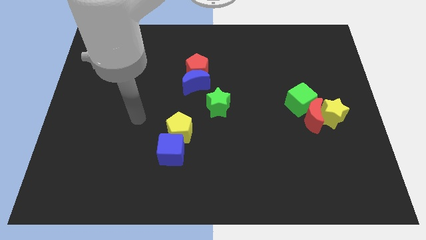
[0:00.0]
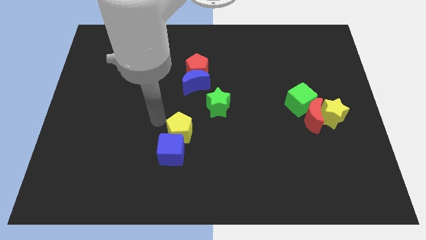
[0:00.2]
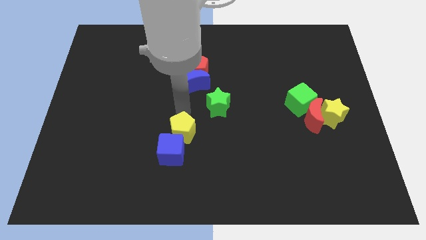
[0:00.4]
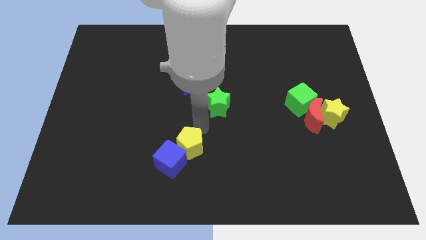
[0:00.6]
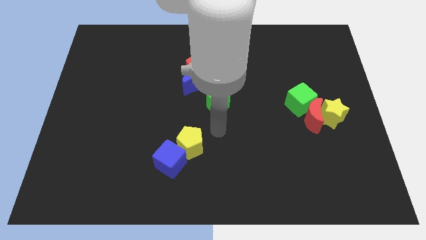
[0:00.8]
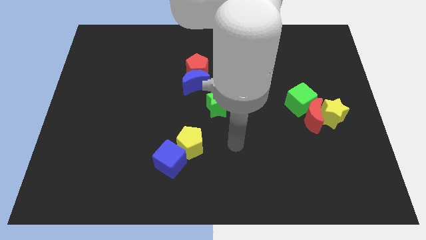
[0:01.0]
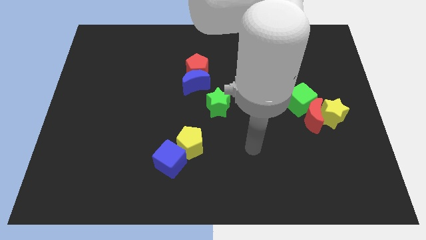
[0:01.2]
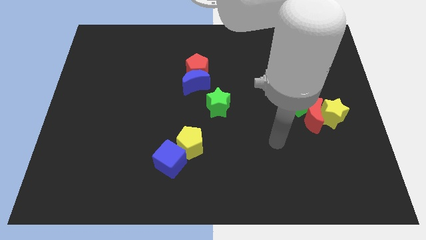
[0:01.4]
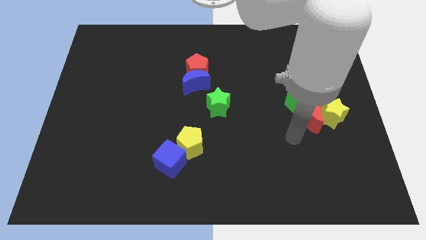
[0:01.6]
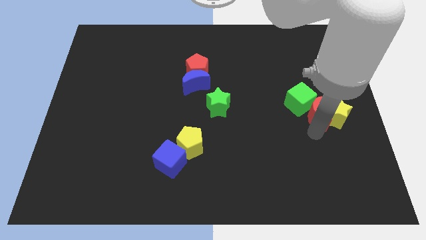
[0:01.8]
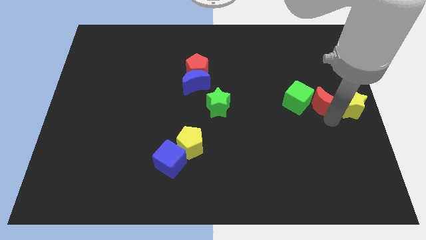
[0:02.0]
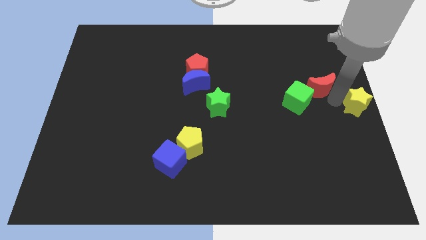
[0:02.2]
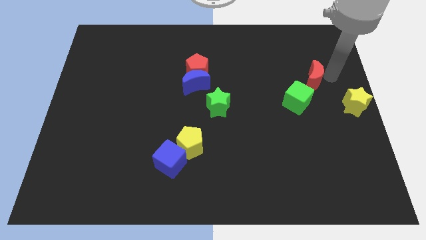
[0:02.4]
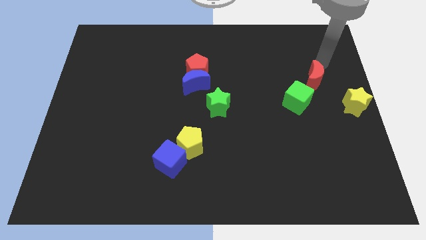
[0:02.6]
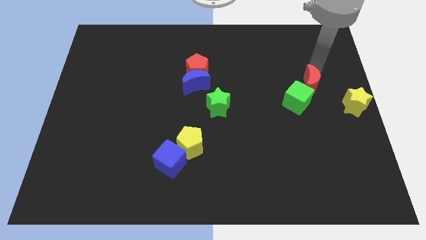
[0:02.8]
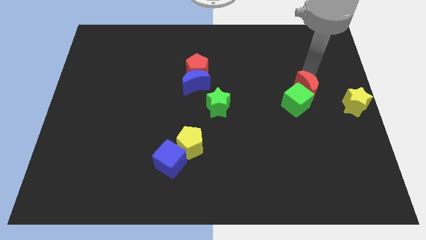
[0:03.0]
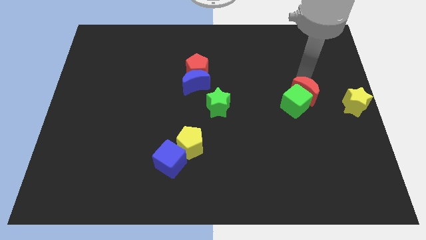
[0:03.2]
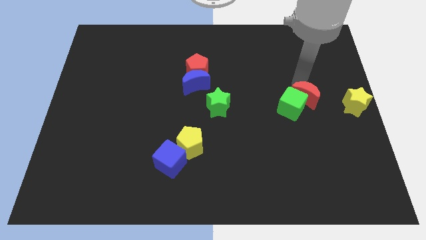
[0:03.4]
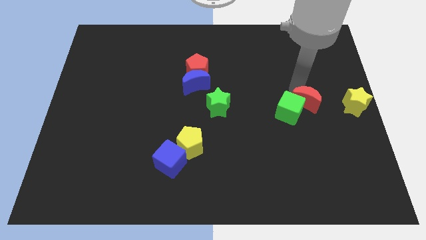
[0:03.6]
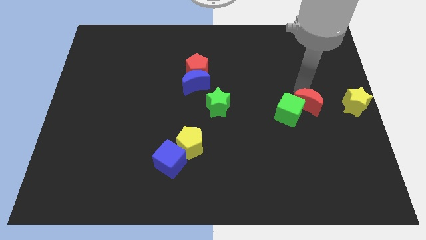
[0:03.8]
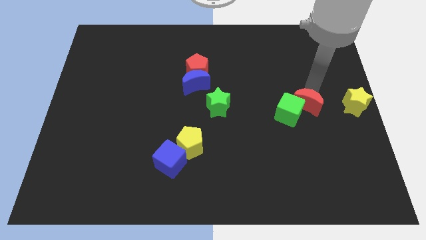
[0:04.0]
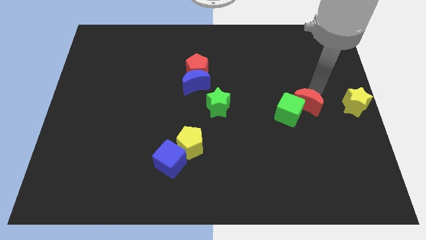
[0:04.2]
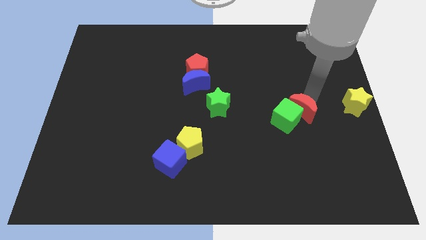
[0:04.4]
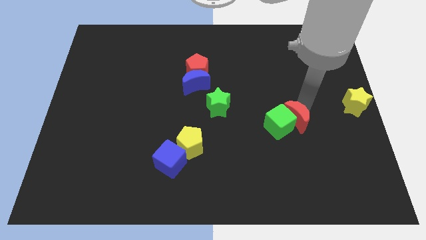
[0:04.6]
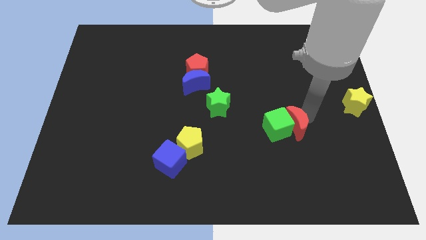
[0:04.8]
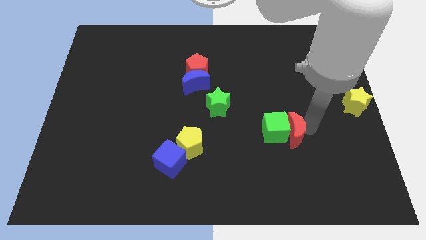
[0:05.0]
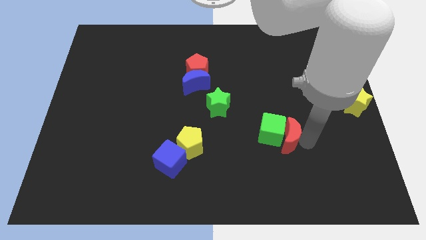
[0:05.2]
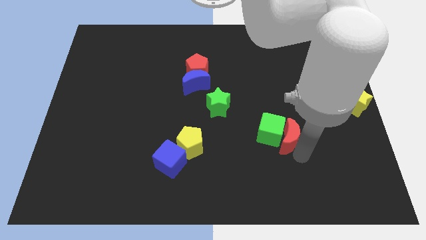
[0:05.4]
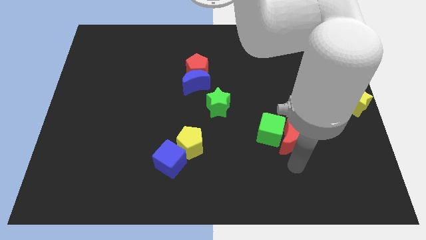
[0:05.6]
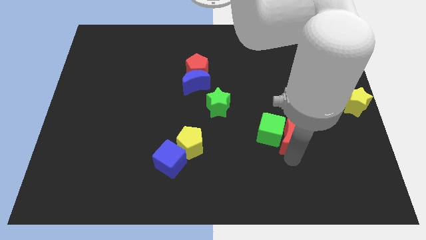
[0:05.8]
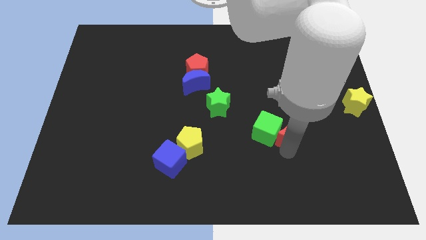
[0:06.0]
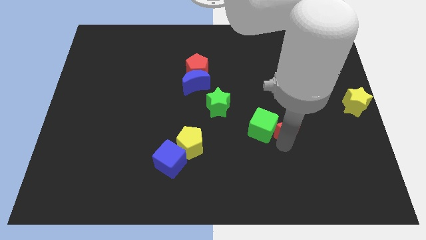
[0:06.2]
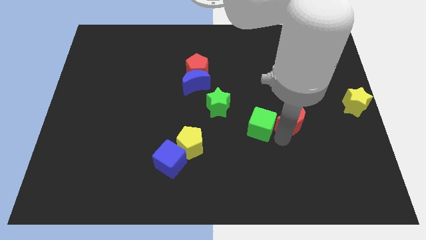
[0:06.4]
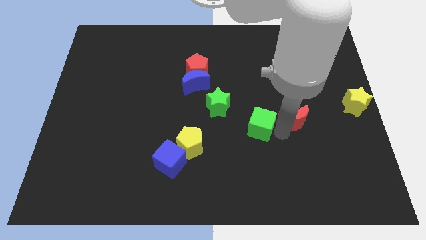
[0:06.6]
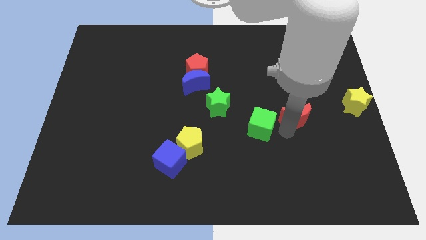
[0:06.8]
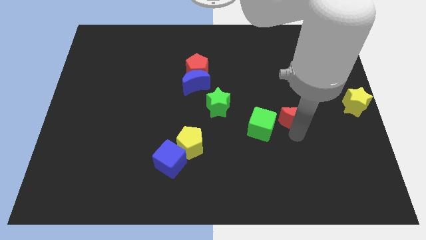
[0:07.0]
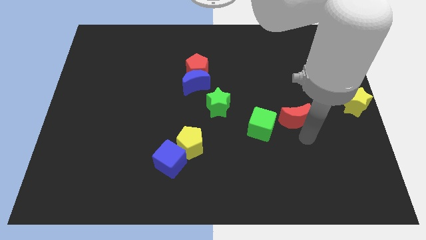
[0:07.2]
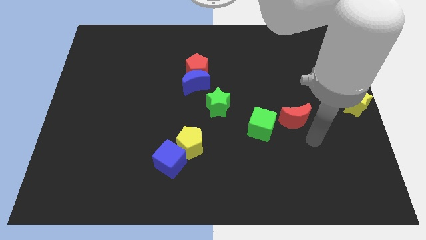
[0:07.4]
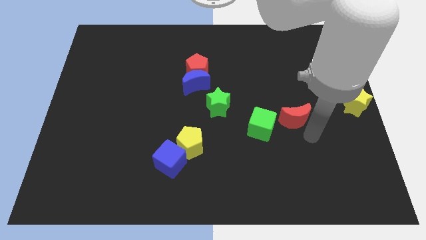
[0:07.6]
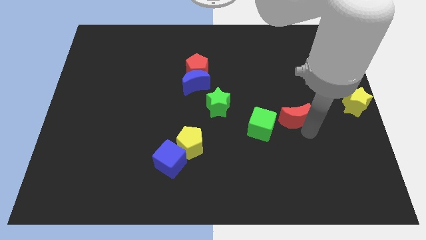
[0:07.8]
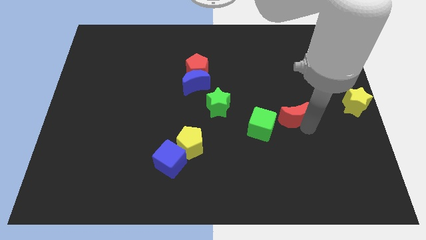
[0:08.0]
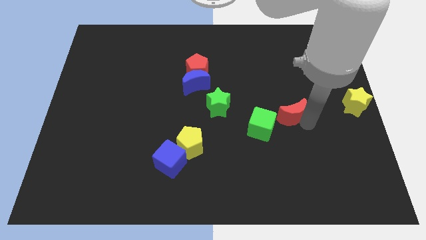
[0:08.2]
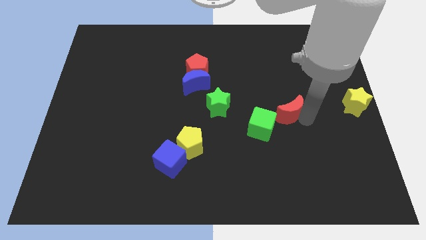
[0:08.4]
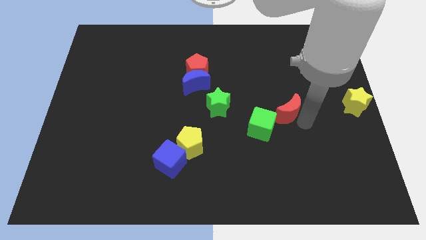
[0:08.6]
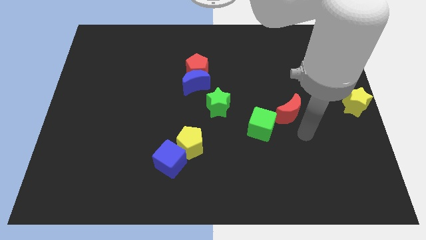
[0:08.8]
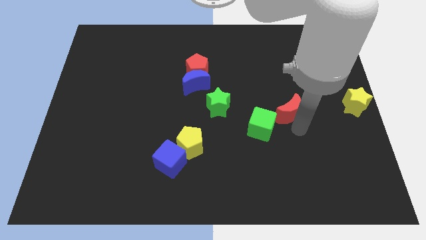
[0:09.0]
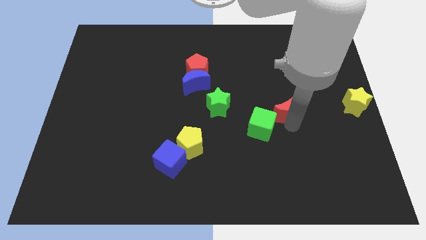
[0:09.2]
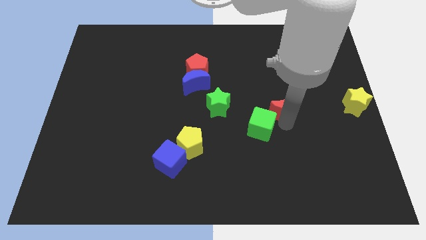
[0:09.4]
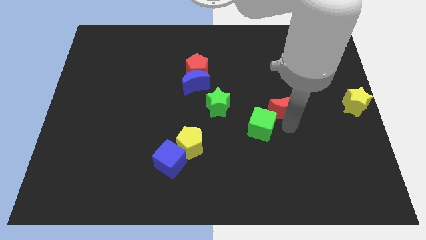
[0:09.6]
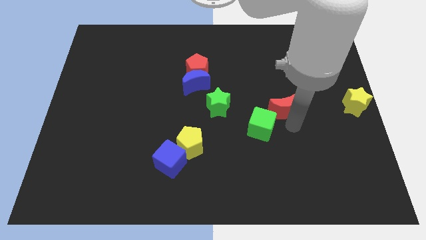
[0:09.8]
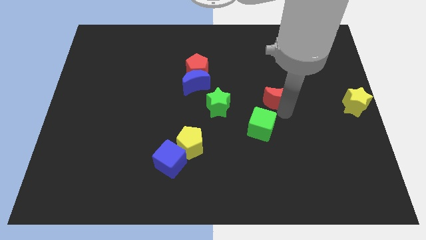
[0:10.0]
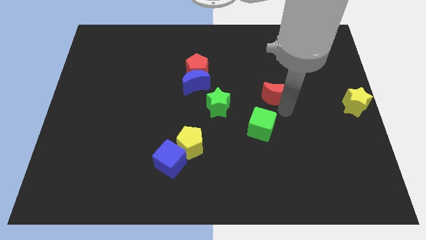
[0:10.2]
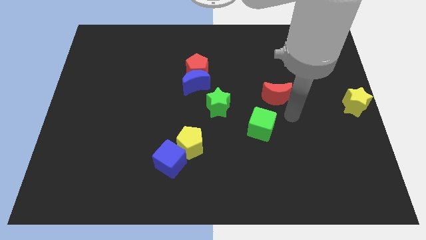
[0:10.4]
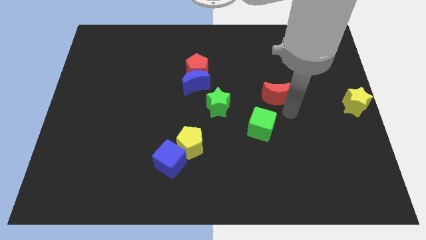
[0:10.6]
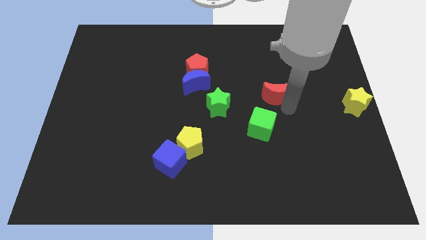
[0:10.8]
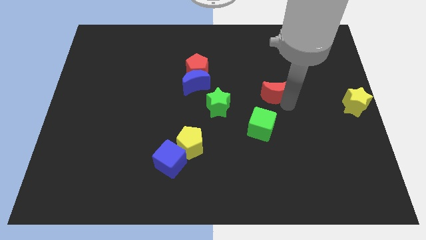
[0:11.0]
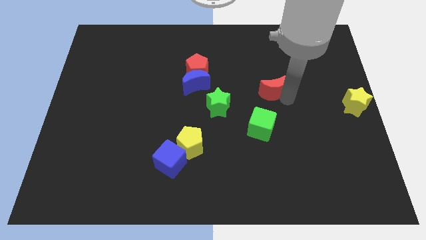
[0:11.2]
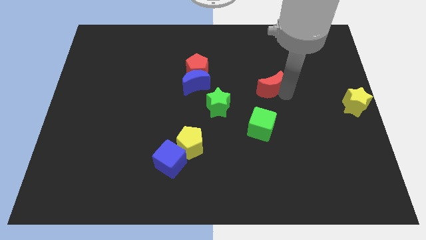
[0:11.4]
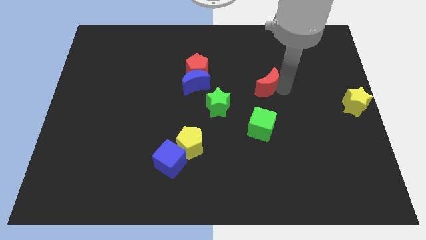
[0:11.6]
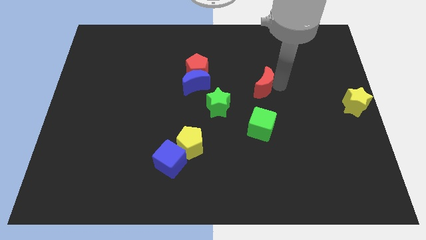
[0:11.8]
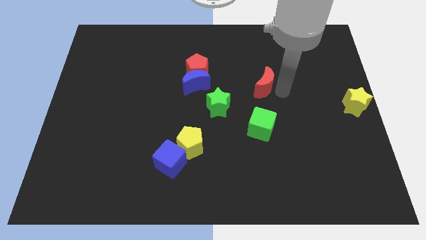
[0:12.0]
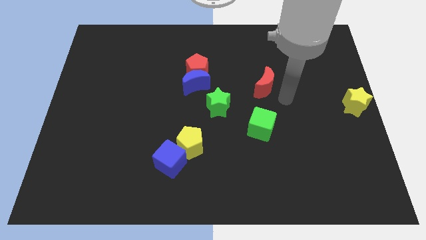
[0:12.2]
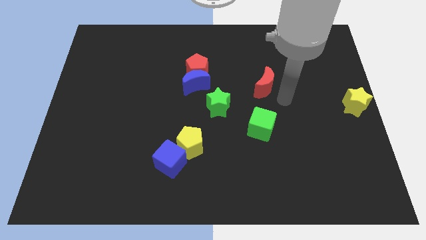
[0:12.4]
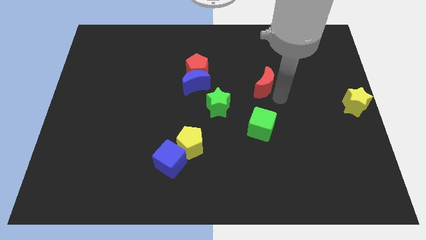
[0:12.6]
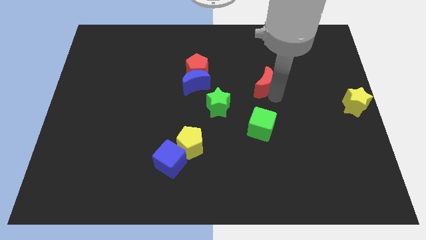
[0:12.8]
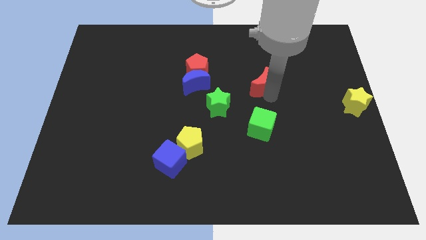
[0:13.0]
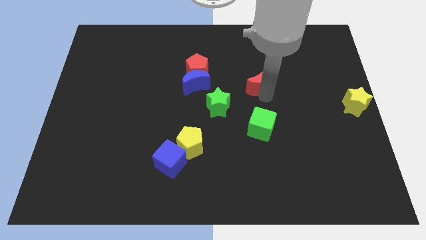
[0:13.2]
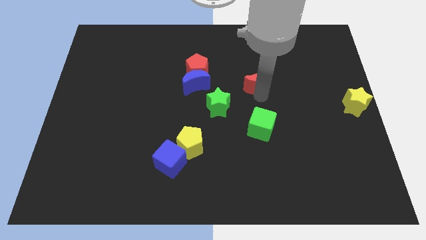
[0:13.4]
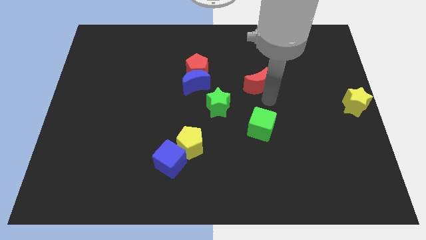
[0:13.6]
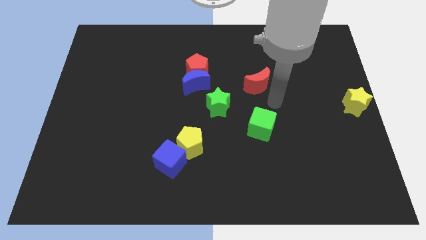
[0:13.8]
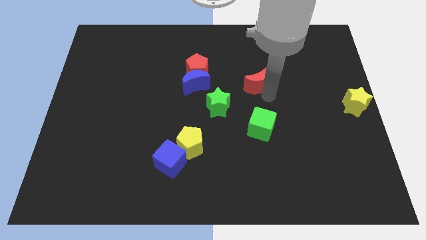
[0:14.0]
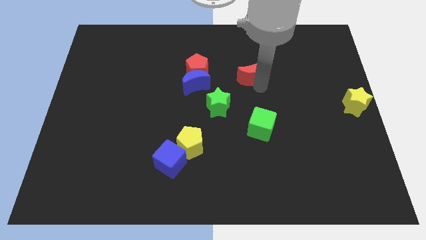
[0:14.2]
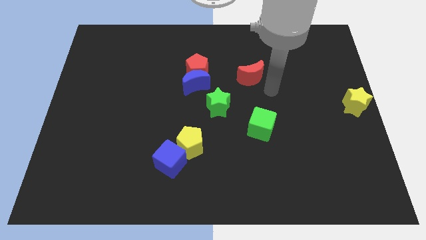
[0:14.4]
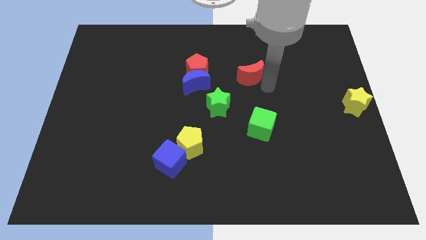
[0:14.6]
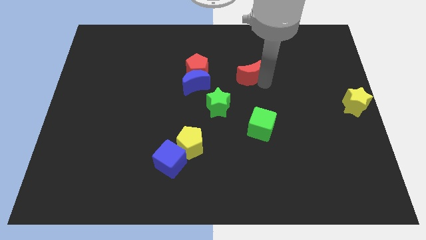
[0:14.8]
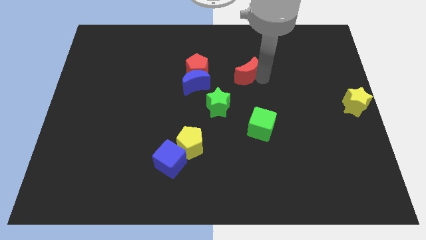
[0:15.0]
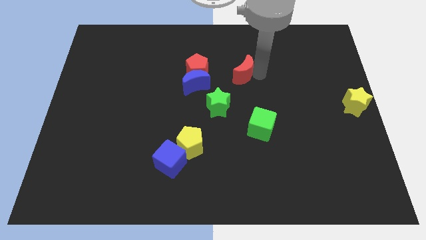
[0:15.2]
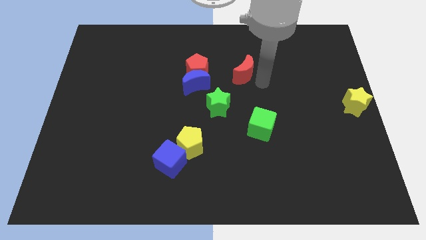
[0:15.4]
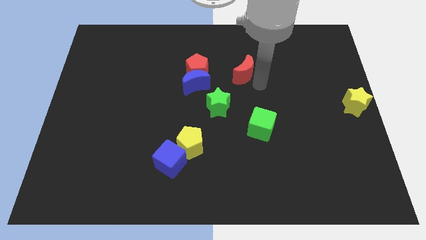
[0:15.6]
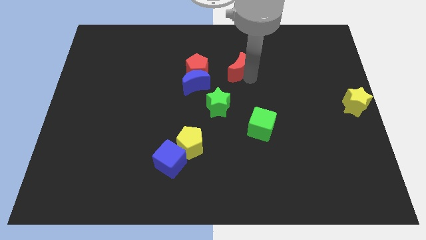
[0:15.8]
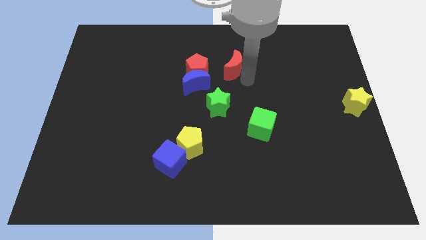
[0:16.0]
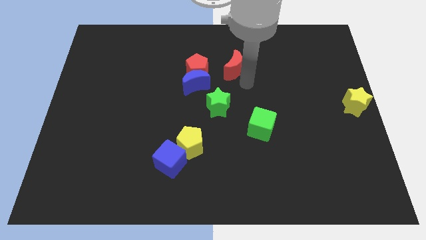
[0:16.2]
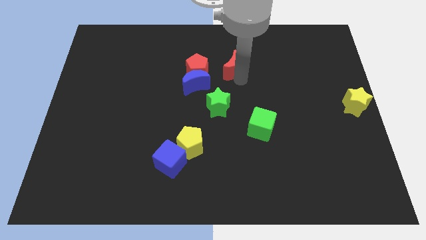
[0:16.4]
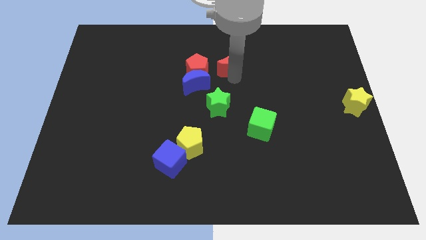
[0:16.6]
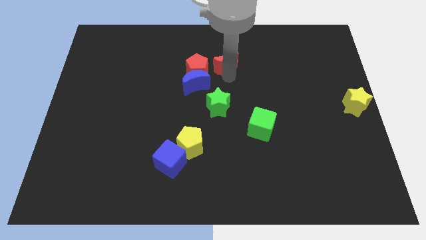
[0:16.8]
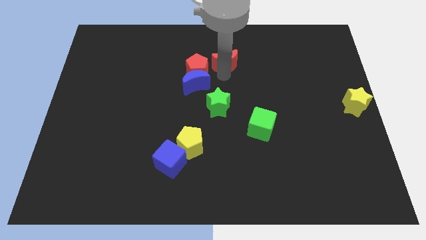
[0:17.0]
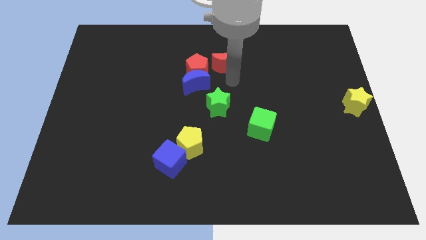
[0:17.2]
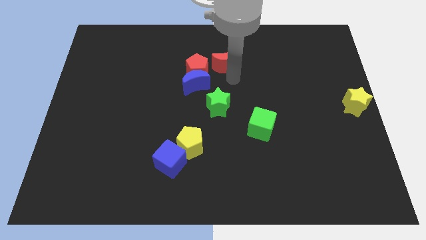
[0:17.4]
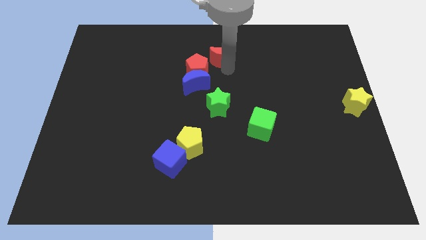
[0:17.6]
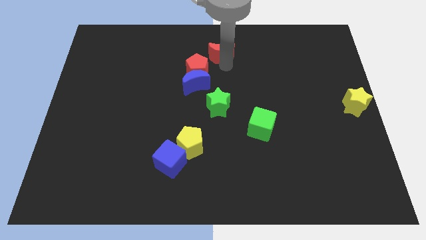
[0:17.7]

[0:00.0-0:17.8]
put the red moon to the top side
